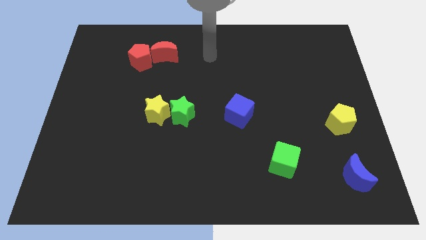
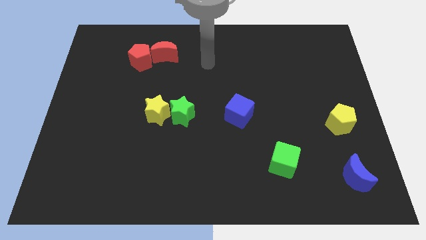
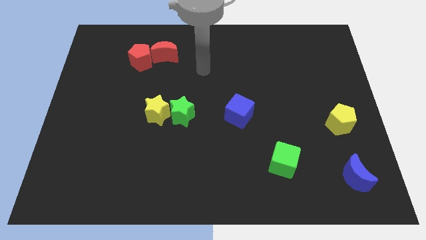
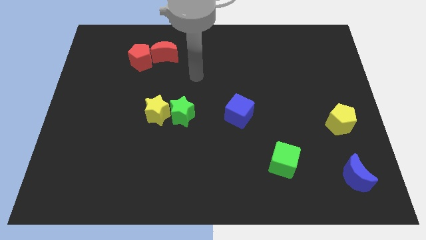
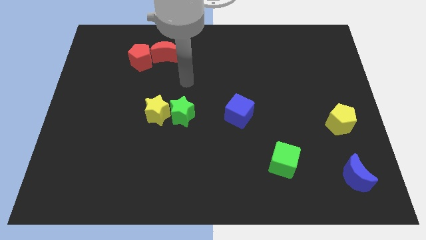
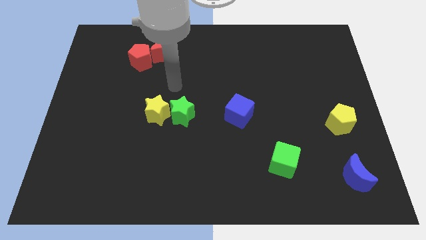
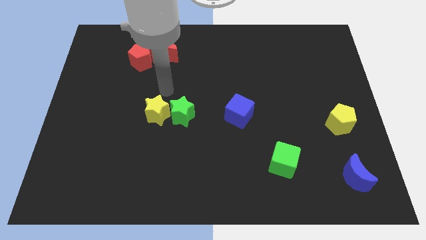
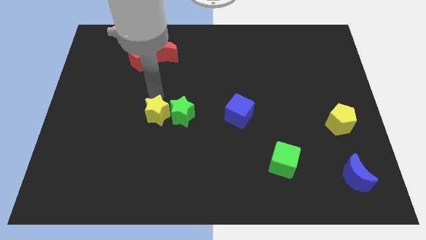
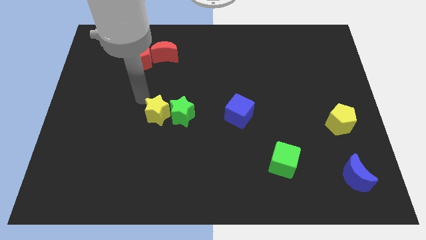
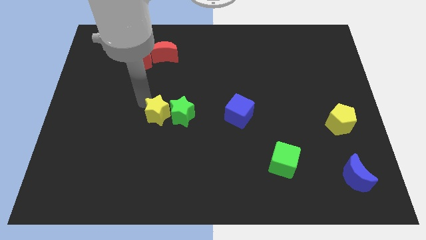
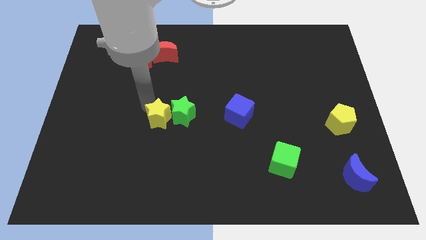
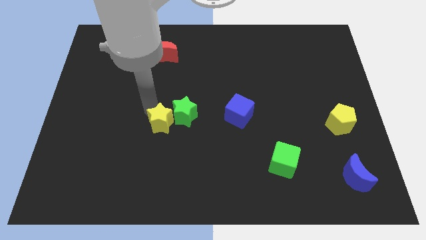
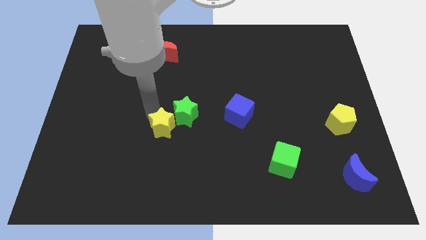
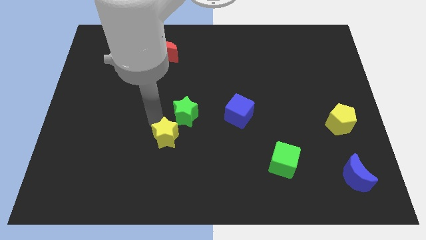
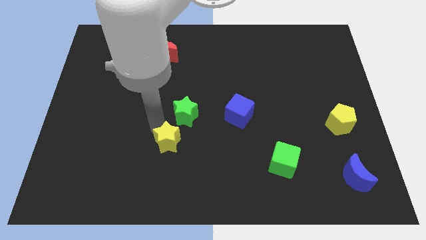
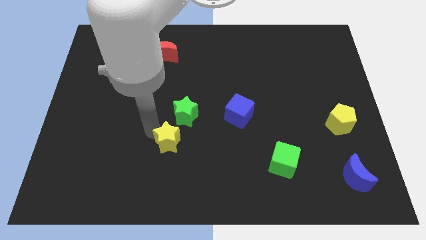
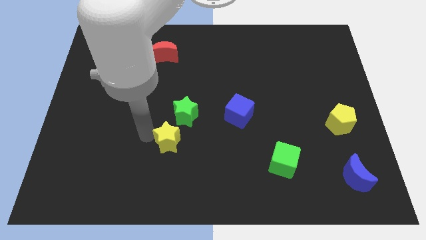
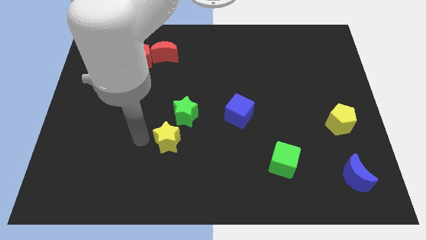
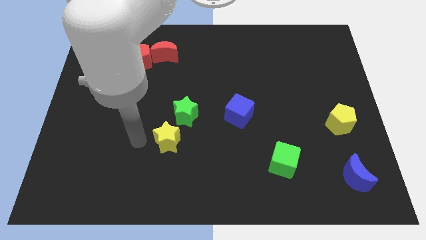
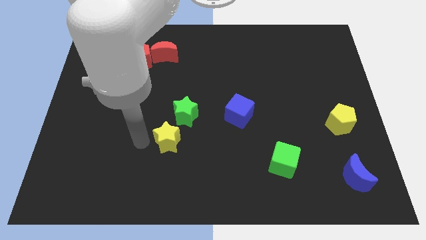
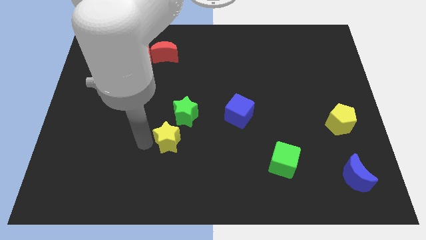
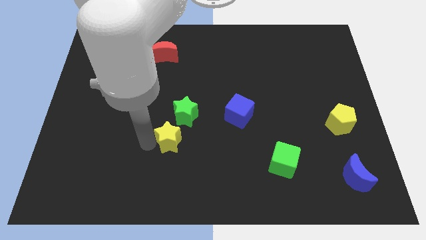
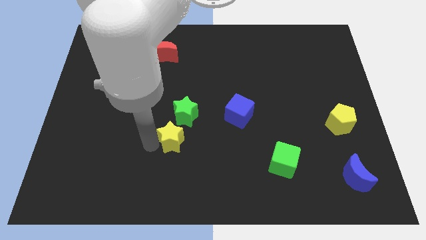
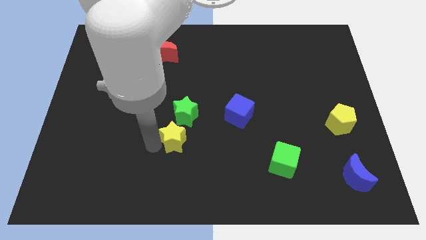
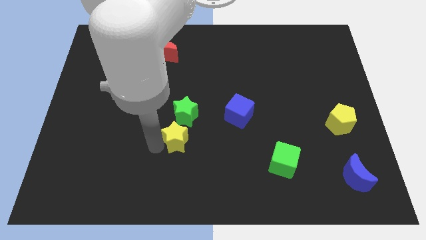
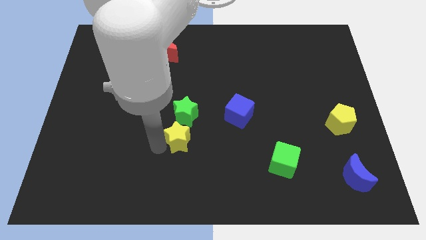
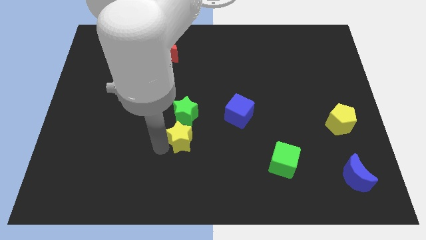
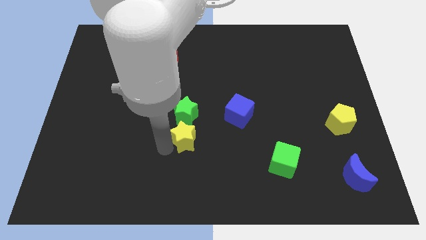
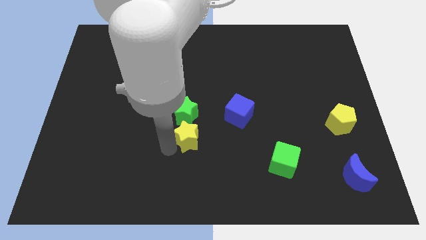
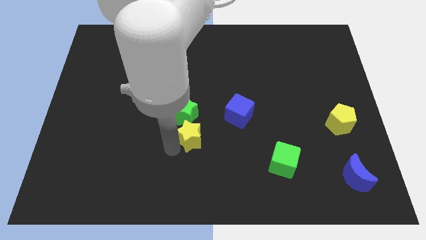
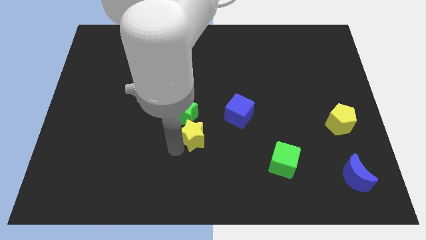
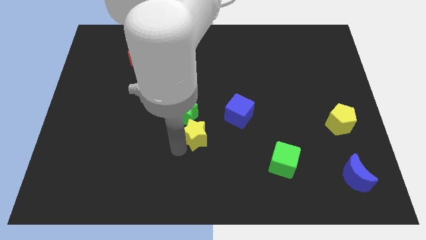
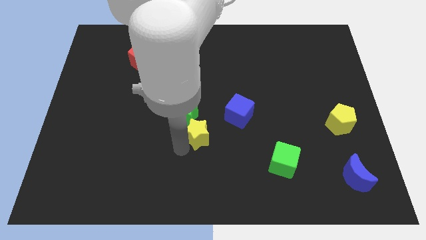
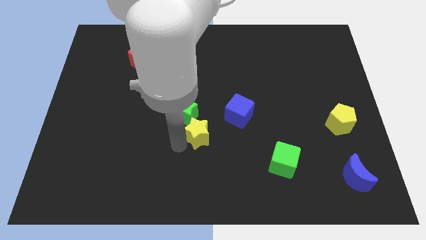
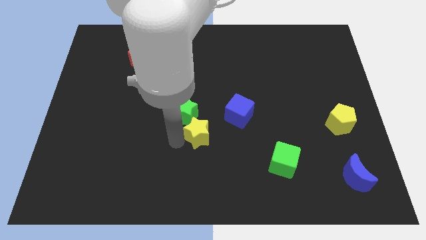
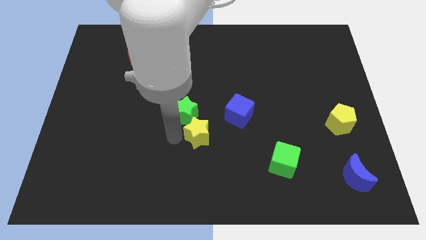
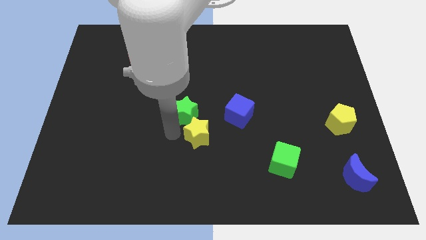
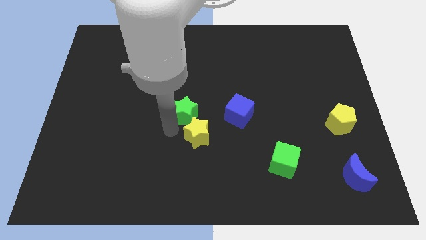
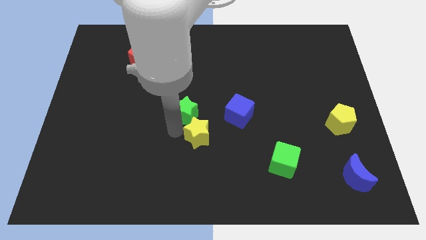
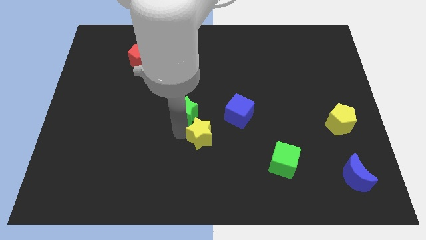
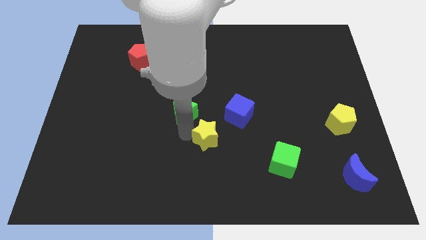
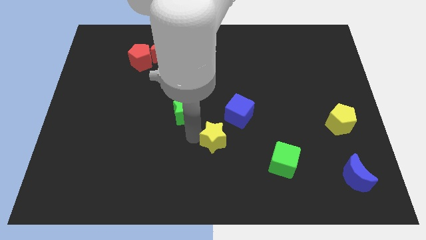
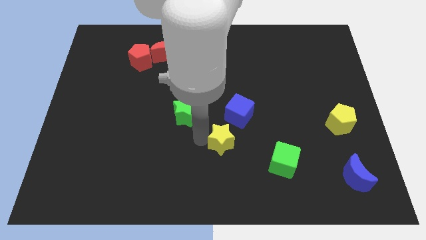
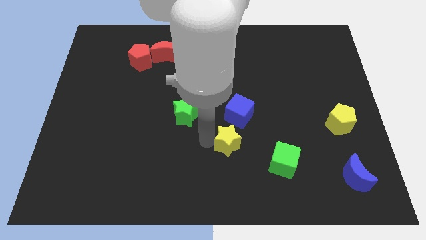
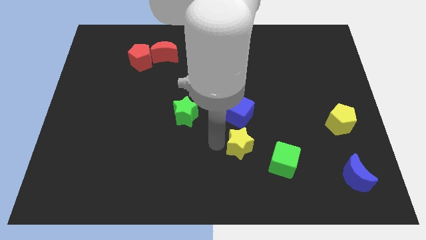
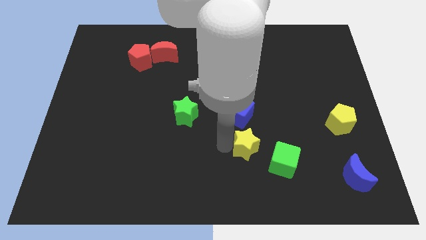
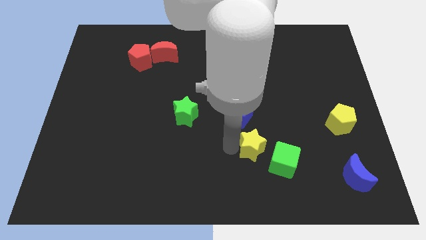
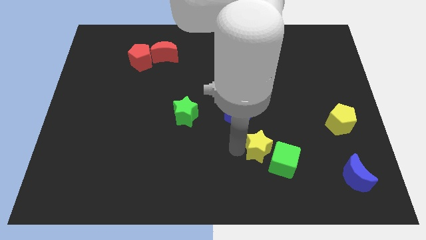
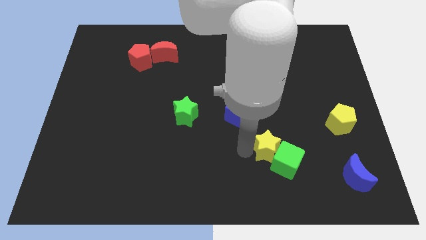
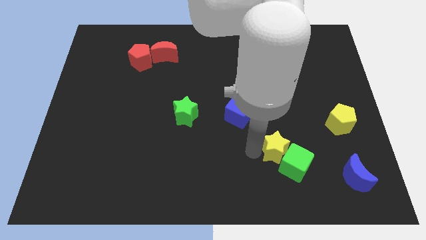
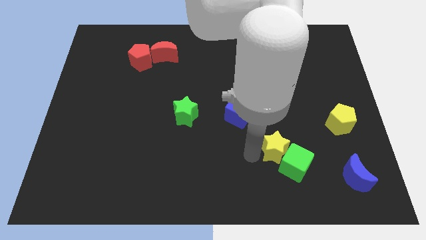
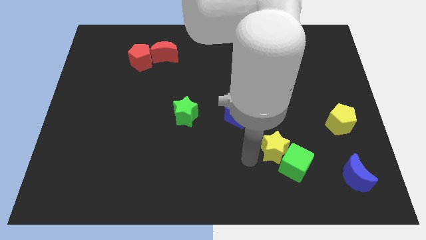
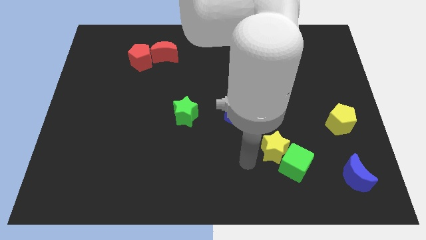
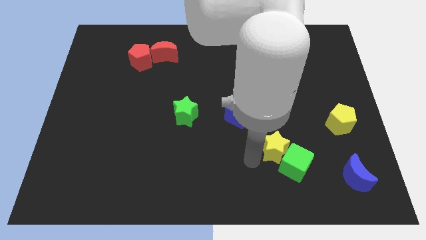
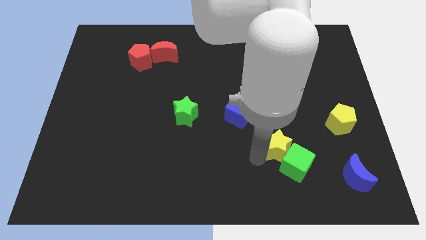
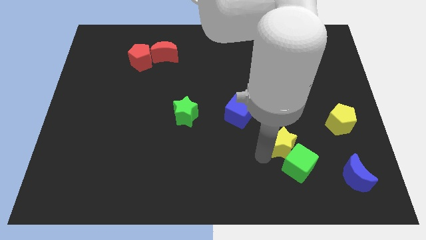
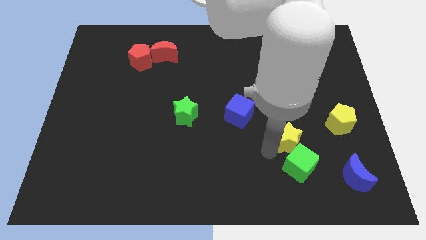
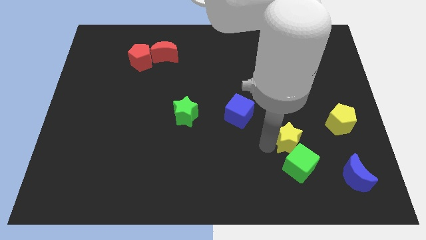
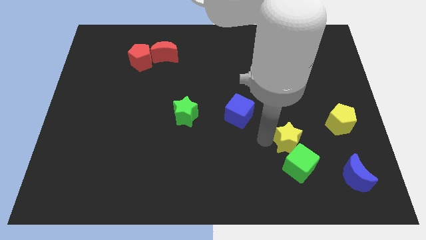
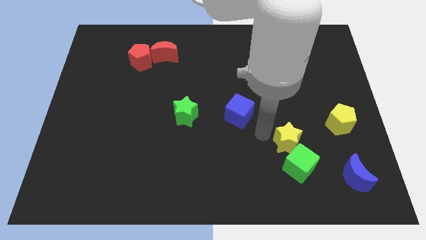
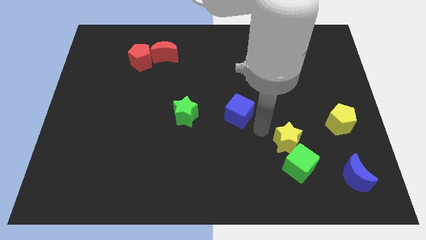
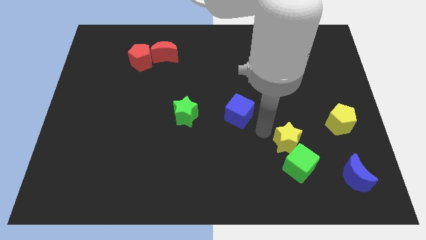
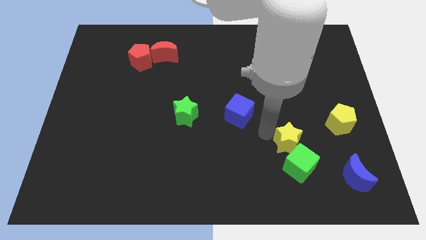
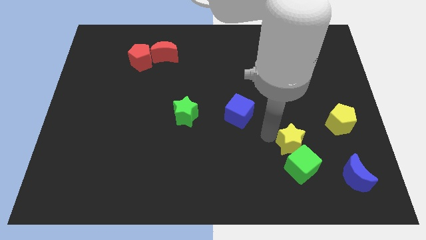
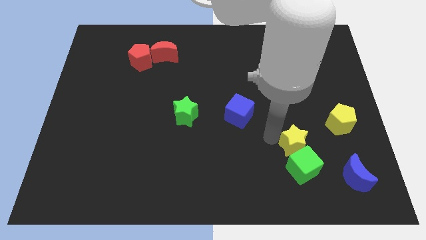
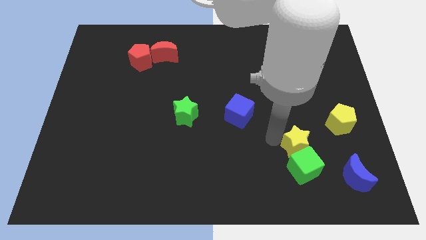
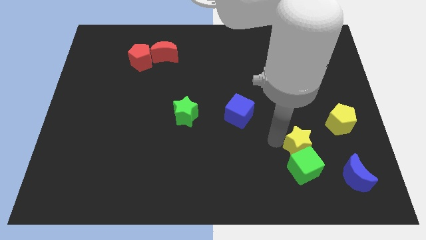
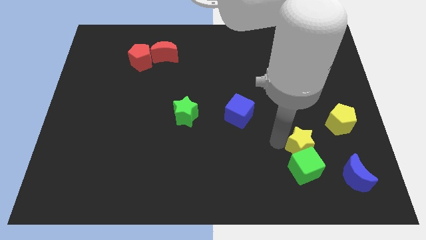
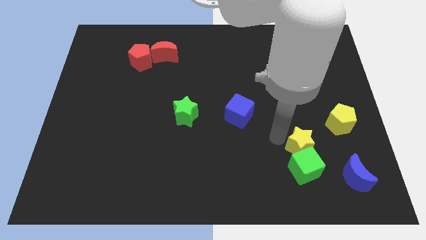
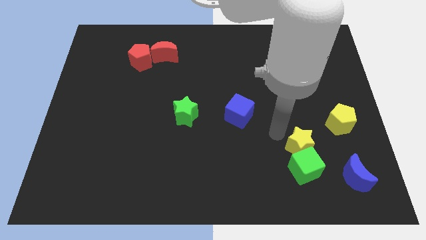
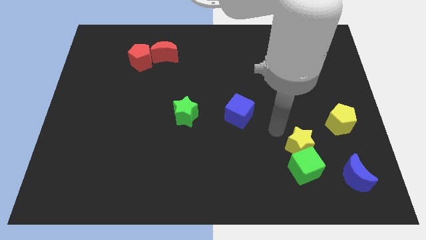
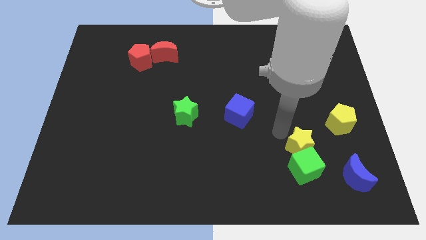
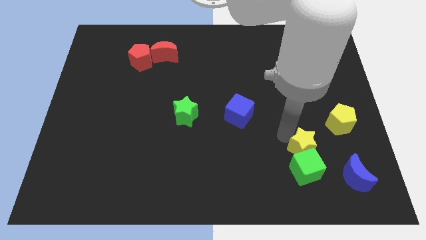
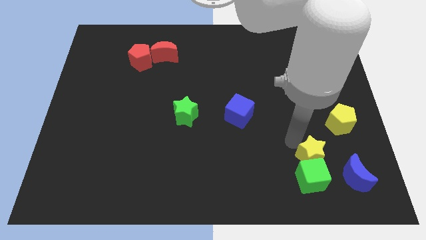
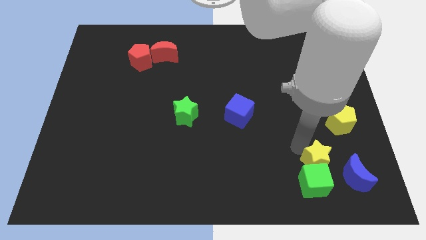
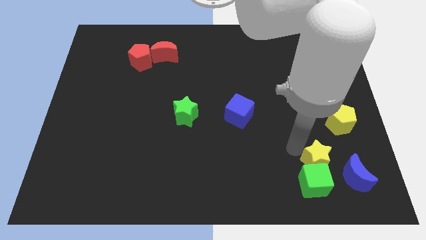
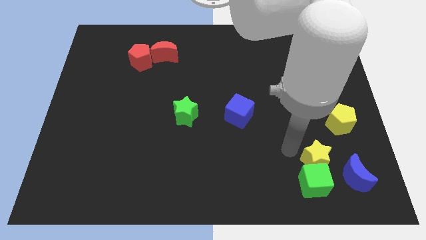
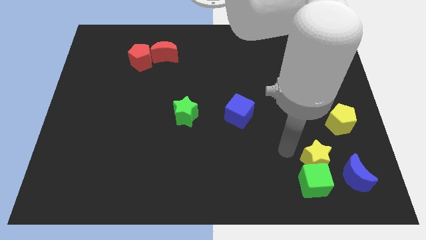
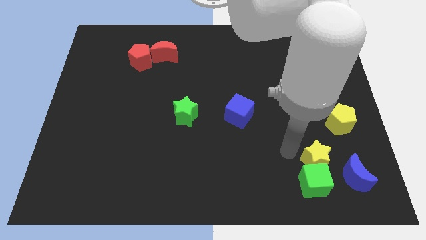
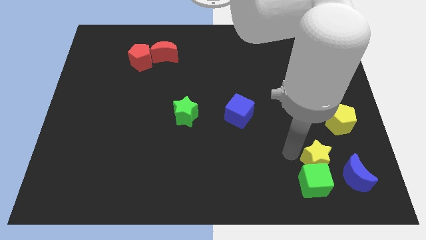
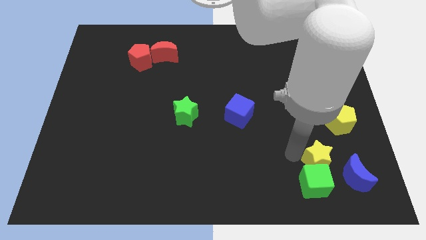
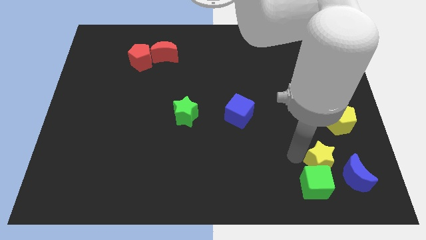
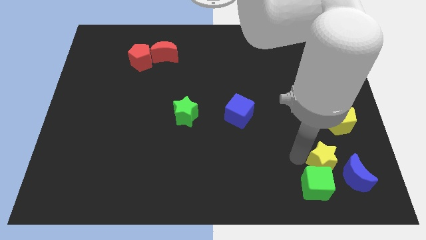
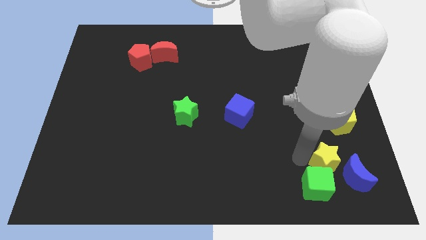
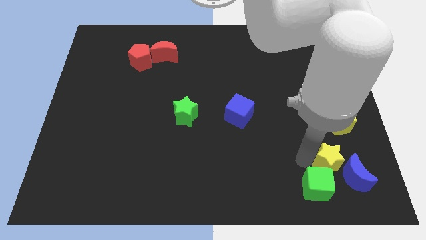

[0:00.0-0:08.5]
slide the yellow star to the blue moon
